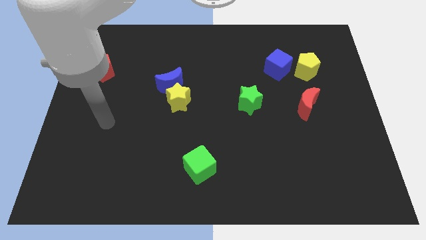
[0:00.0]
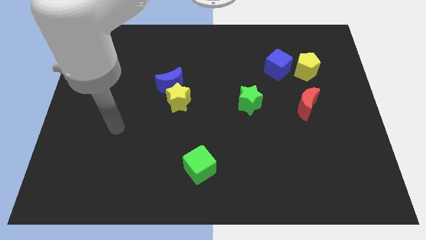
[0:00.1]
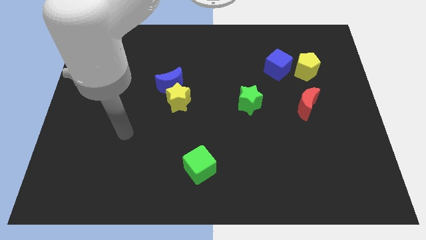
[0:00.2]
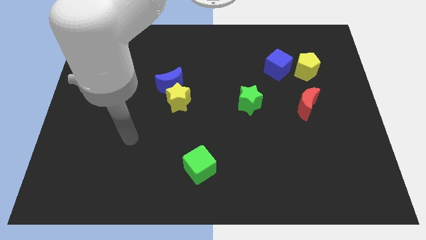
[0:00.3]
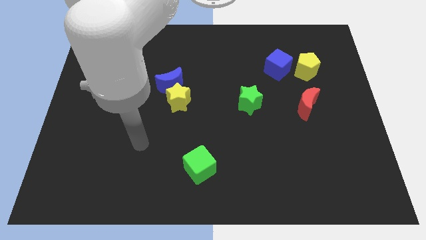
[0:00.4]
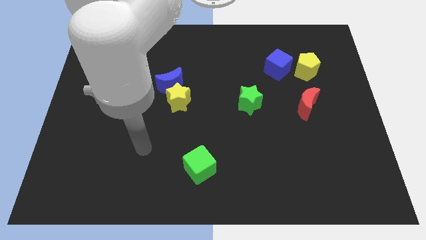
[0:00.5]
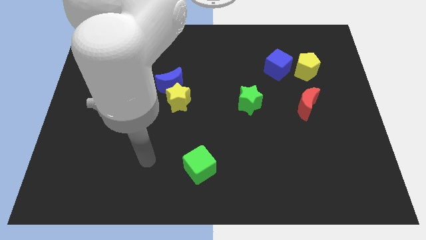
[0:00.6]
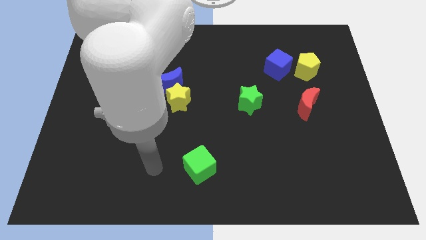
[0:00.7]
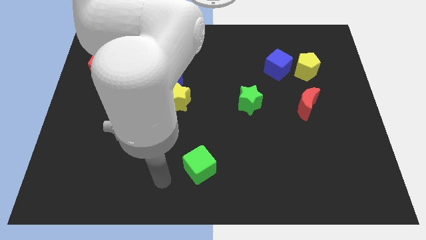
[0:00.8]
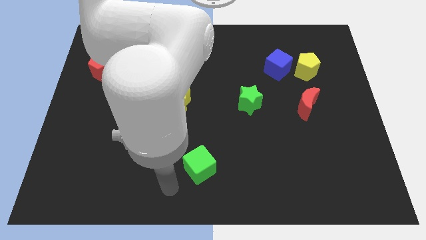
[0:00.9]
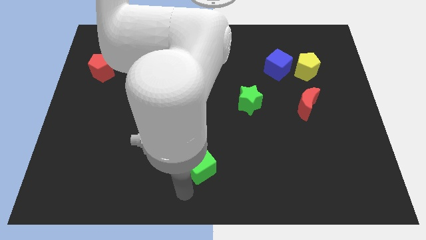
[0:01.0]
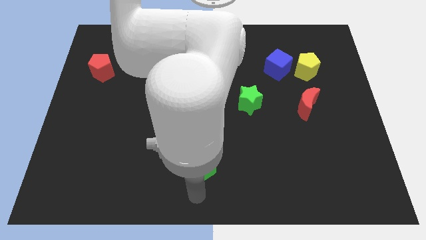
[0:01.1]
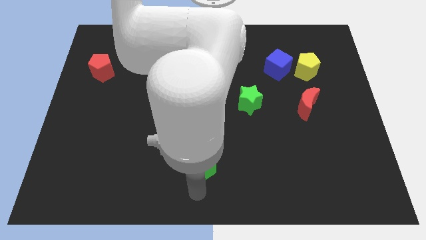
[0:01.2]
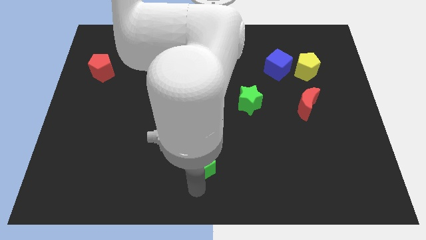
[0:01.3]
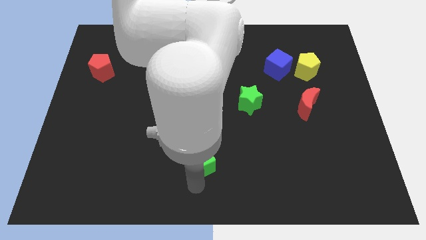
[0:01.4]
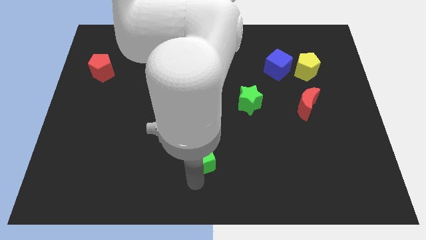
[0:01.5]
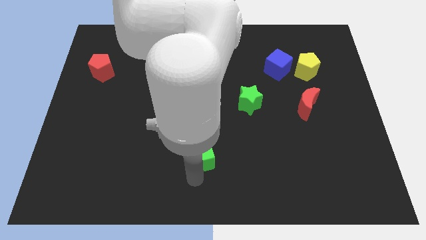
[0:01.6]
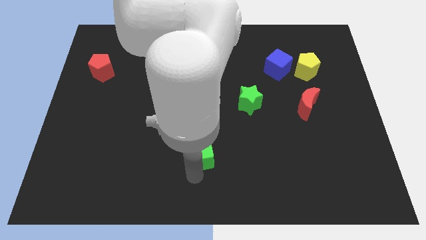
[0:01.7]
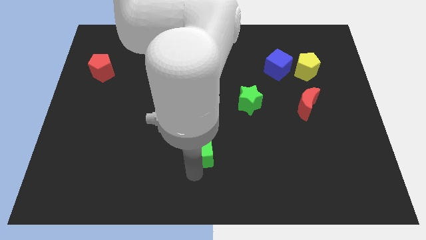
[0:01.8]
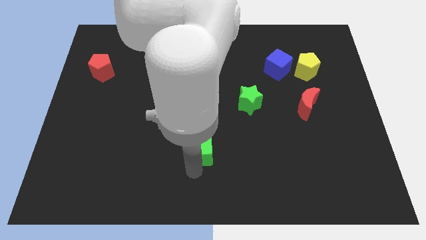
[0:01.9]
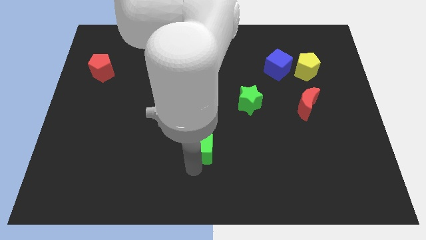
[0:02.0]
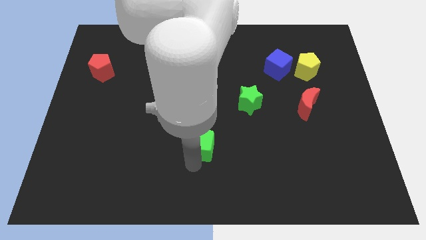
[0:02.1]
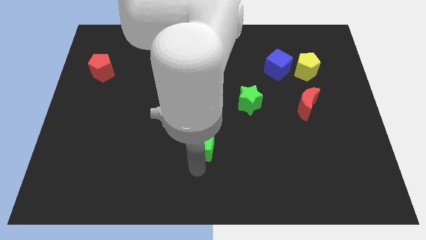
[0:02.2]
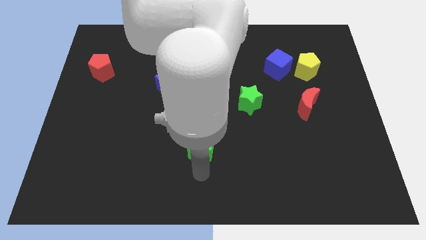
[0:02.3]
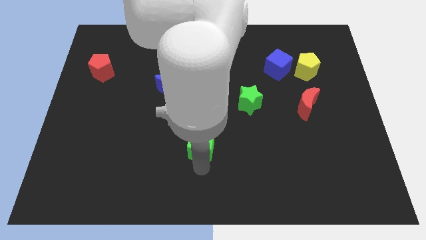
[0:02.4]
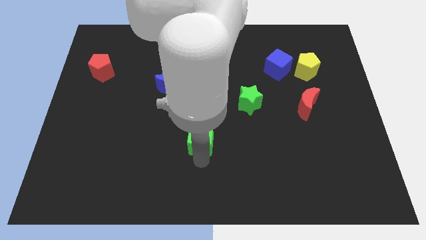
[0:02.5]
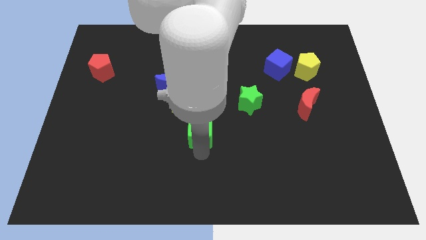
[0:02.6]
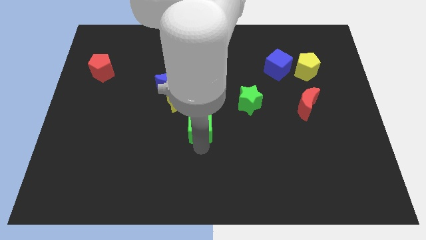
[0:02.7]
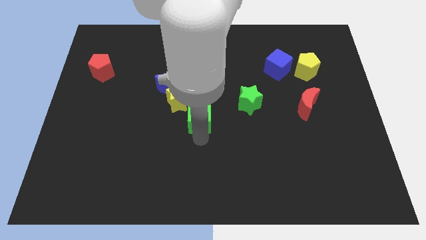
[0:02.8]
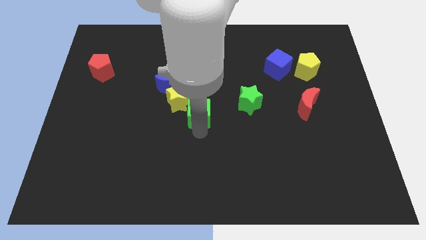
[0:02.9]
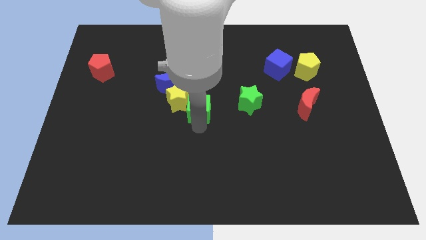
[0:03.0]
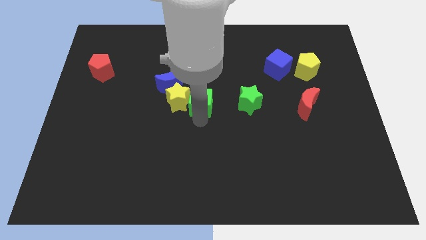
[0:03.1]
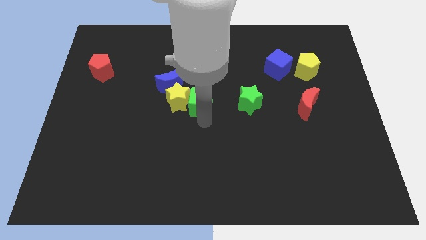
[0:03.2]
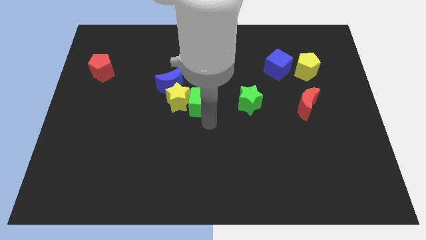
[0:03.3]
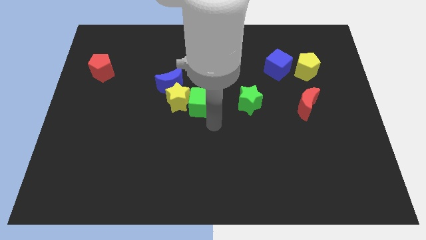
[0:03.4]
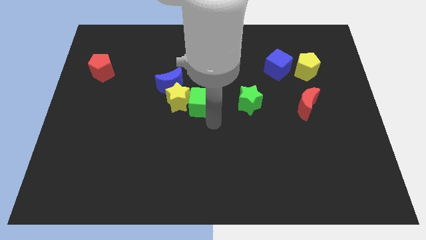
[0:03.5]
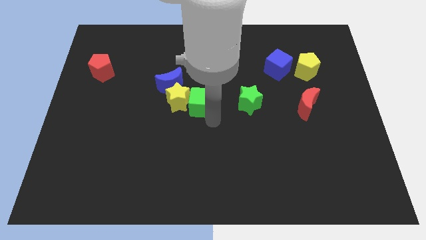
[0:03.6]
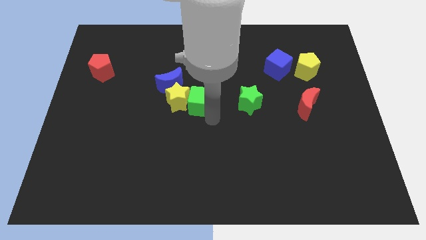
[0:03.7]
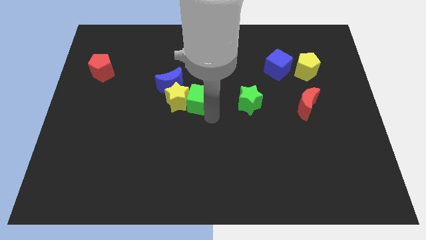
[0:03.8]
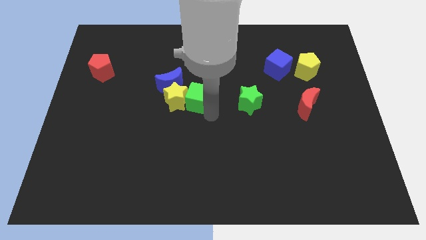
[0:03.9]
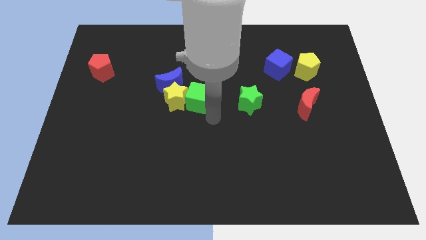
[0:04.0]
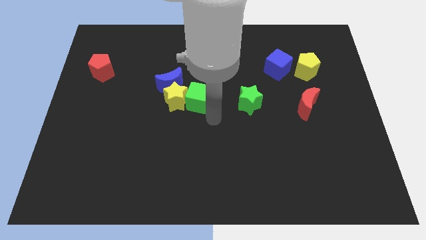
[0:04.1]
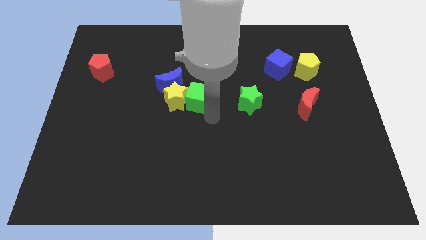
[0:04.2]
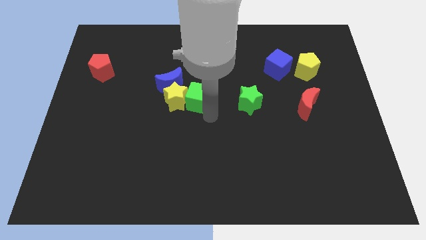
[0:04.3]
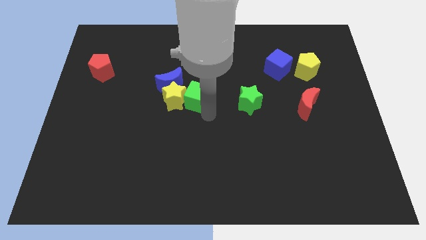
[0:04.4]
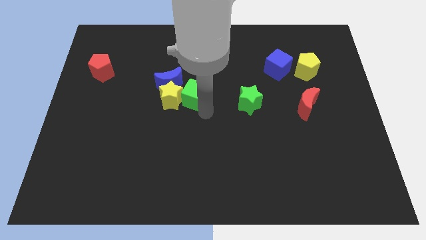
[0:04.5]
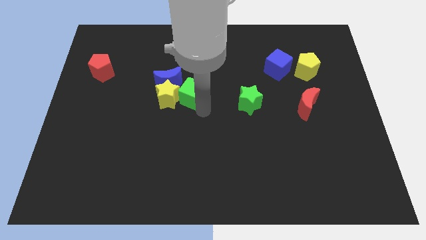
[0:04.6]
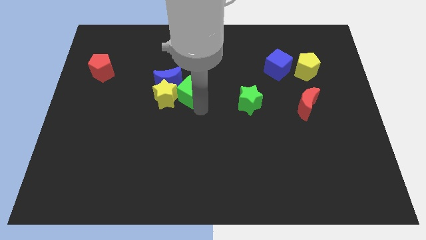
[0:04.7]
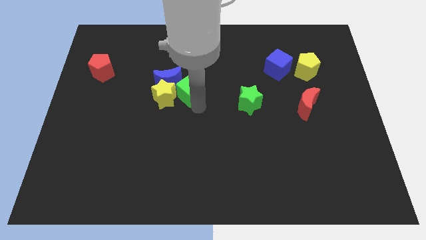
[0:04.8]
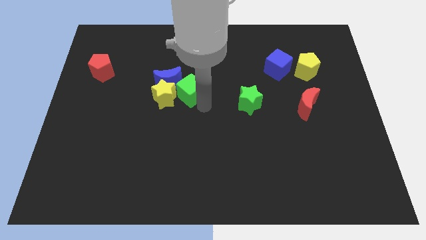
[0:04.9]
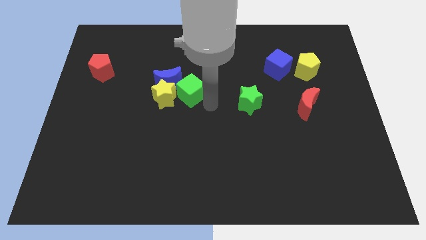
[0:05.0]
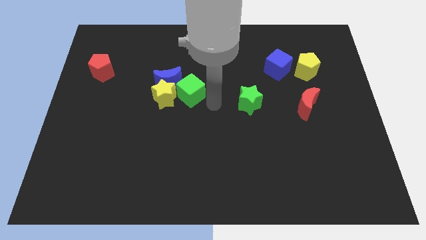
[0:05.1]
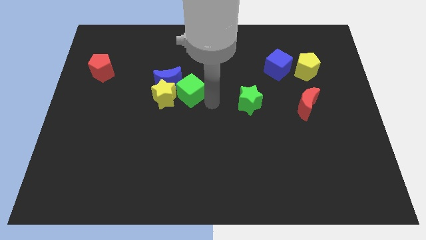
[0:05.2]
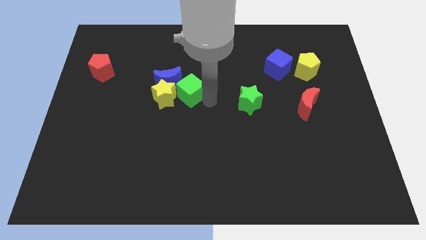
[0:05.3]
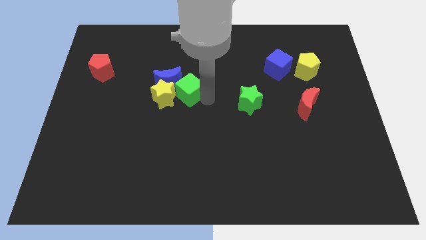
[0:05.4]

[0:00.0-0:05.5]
slide the green cube close to the blue moon

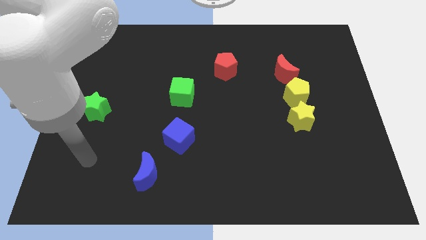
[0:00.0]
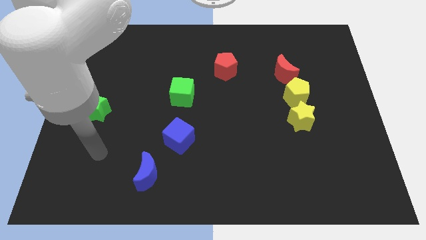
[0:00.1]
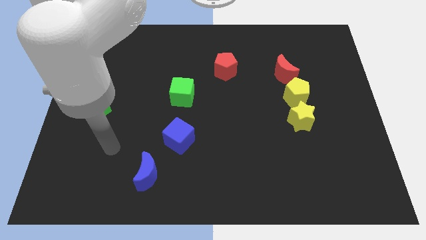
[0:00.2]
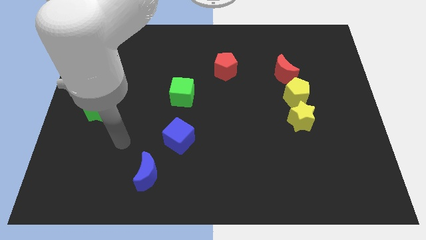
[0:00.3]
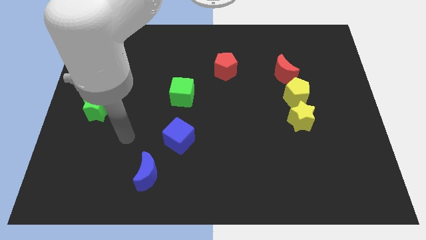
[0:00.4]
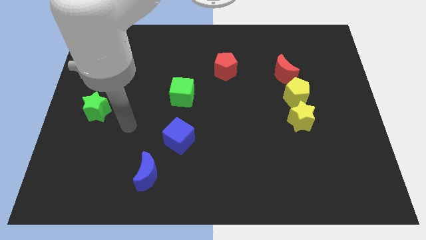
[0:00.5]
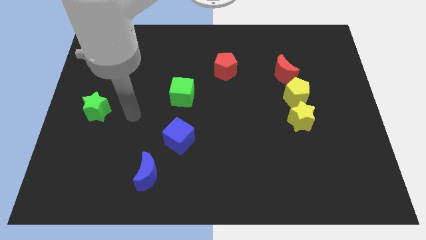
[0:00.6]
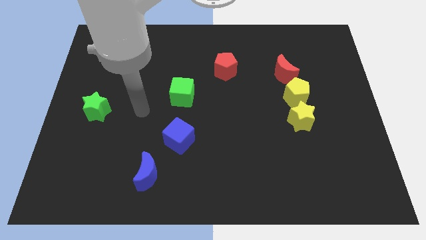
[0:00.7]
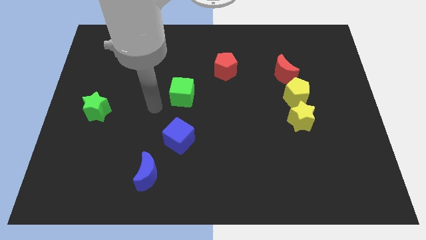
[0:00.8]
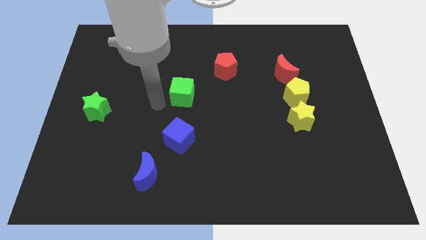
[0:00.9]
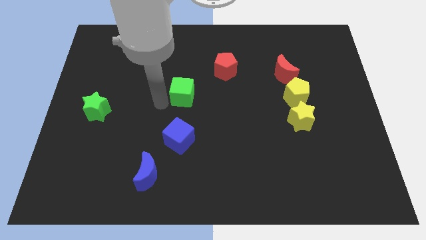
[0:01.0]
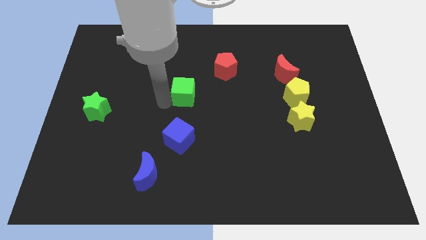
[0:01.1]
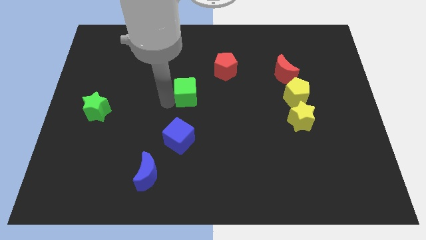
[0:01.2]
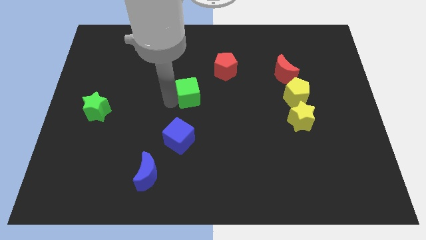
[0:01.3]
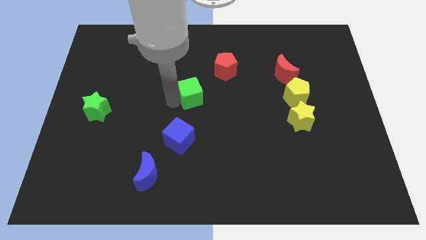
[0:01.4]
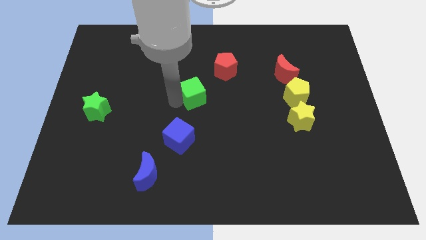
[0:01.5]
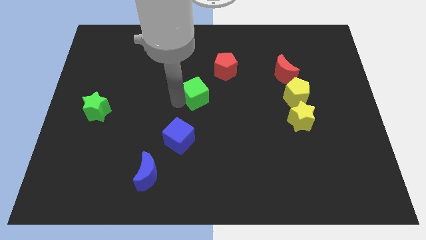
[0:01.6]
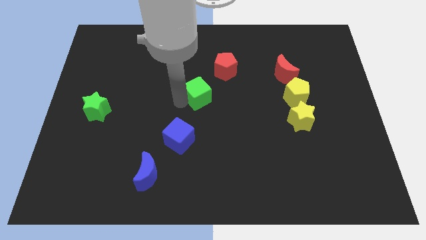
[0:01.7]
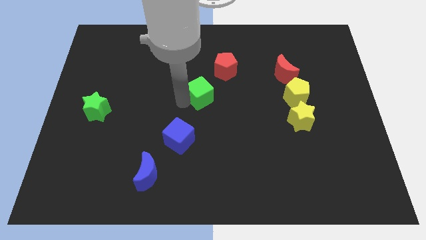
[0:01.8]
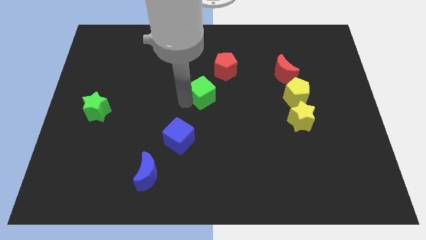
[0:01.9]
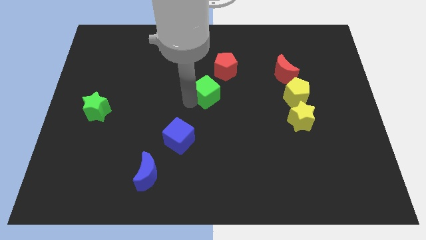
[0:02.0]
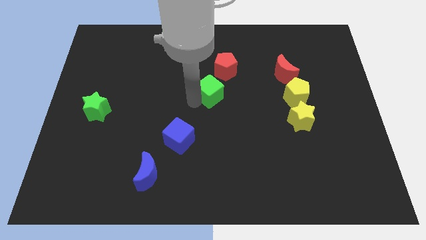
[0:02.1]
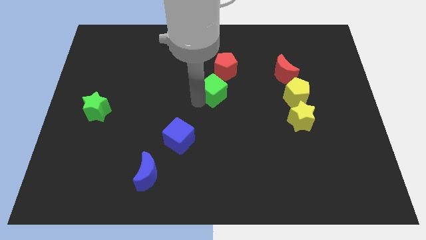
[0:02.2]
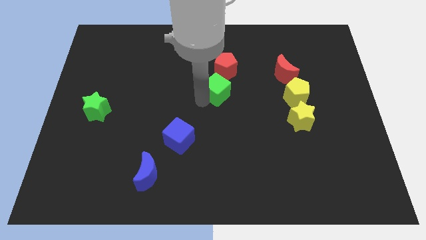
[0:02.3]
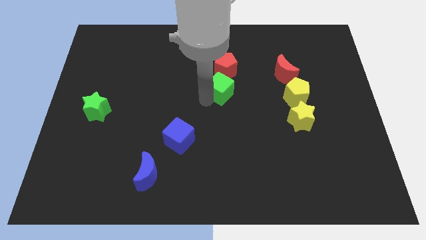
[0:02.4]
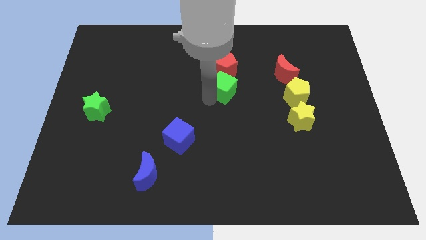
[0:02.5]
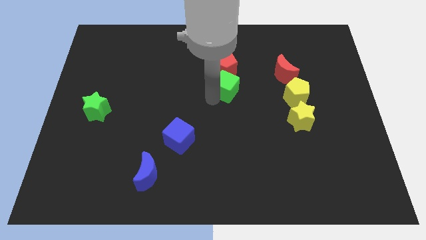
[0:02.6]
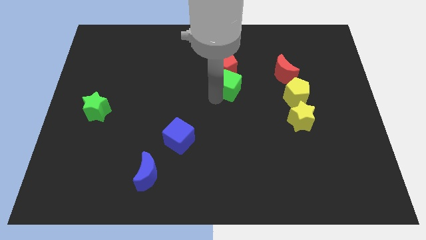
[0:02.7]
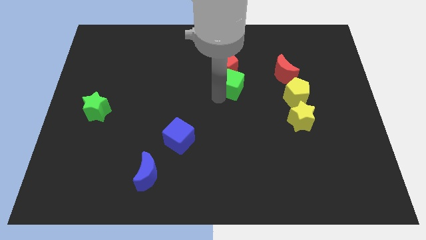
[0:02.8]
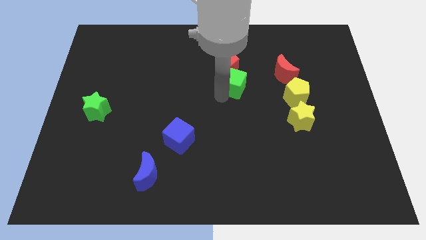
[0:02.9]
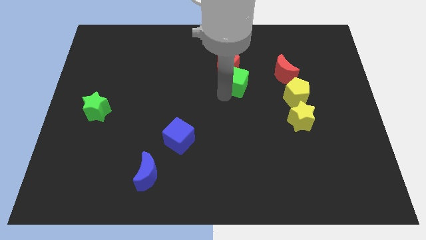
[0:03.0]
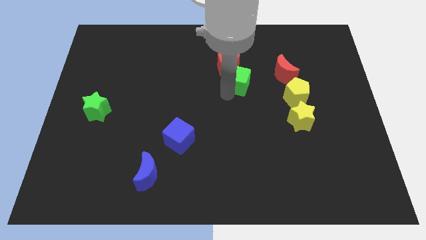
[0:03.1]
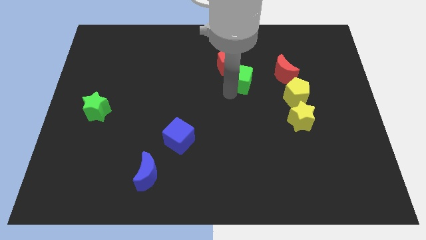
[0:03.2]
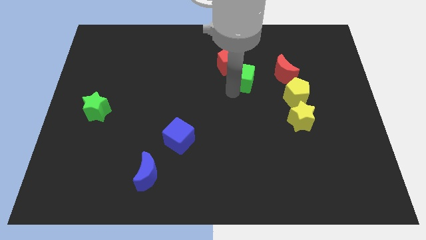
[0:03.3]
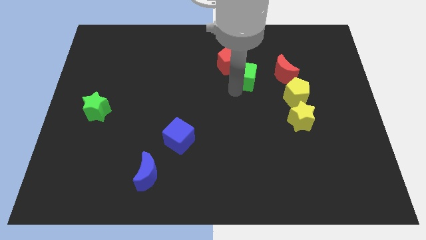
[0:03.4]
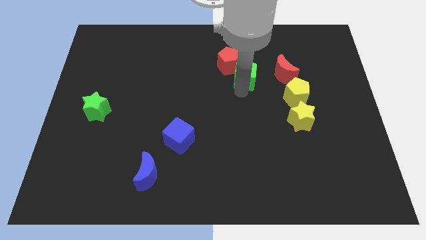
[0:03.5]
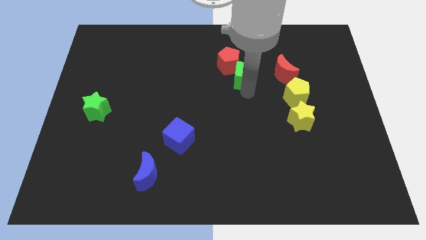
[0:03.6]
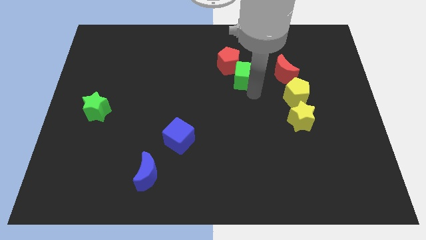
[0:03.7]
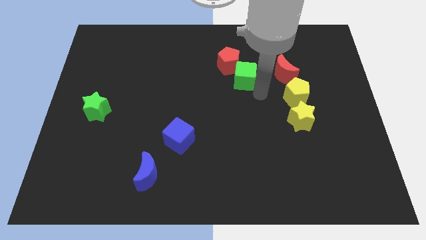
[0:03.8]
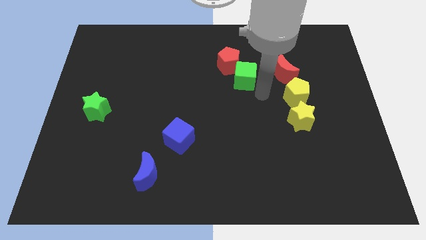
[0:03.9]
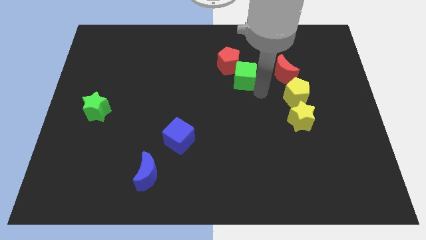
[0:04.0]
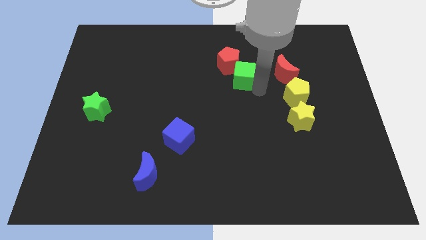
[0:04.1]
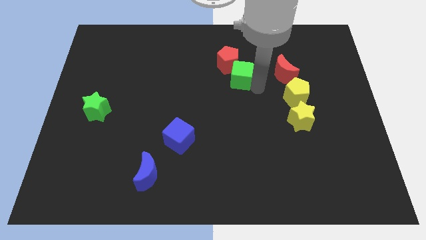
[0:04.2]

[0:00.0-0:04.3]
put the green cube to the red pentagon
